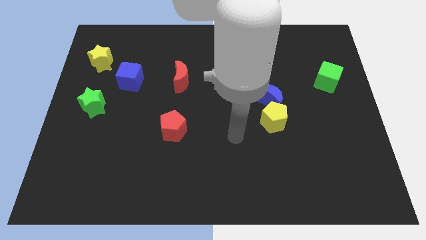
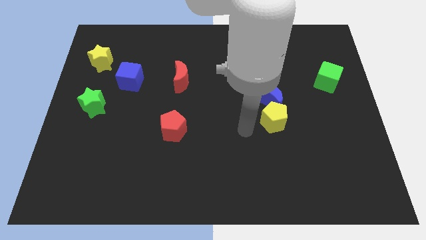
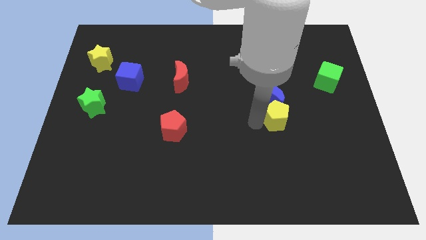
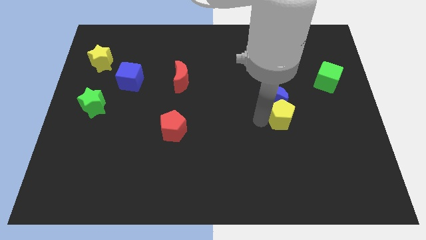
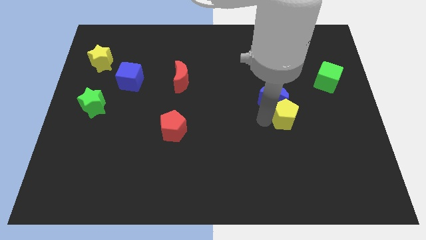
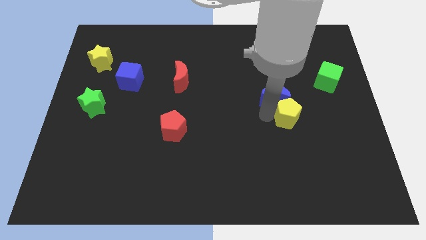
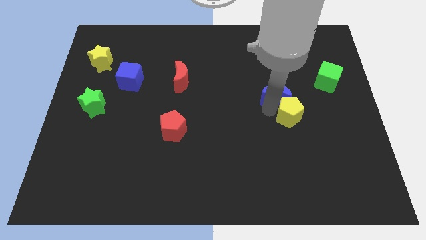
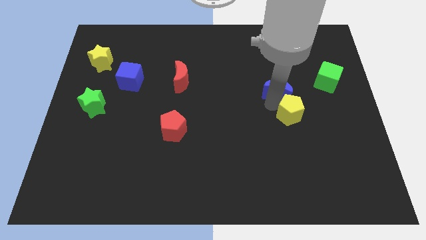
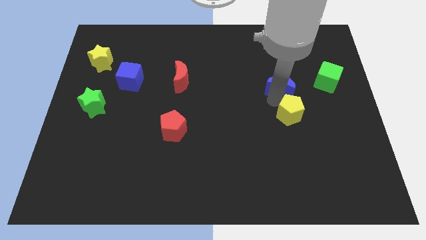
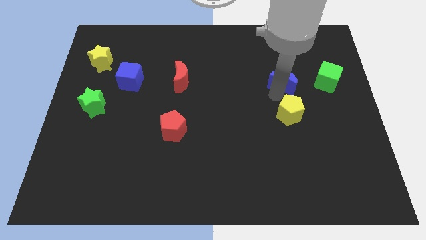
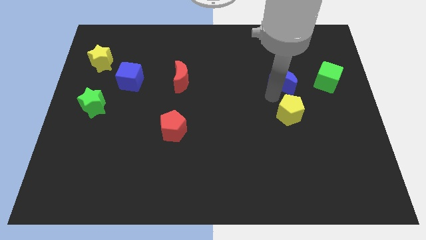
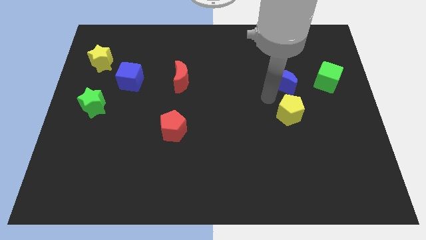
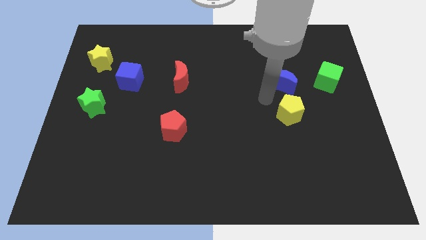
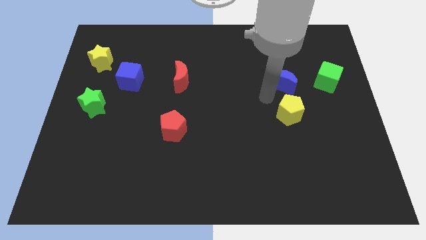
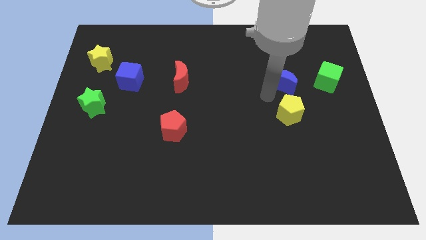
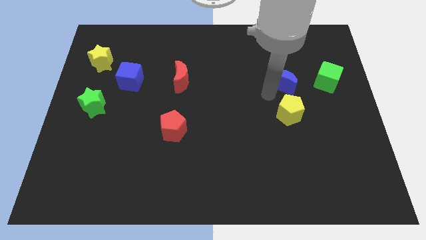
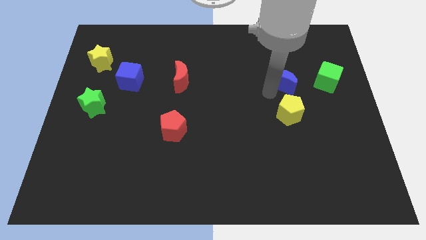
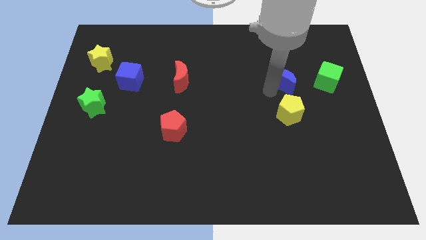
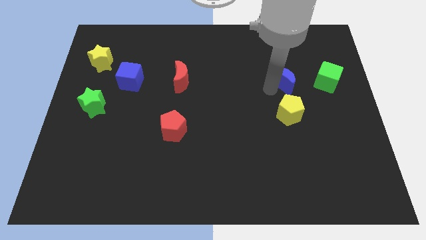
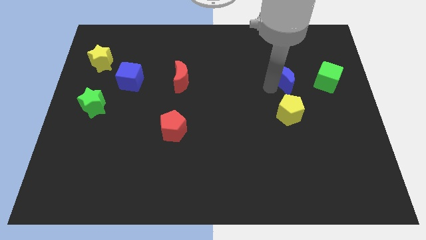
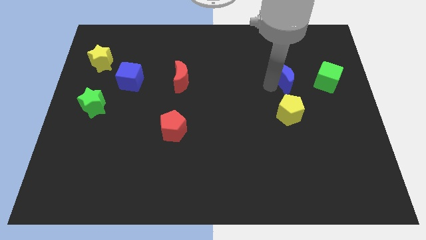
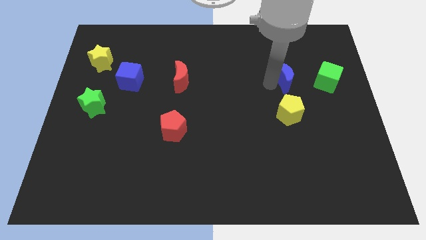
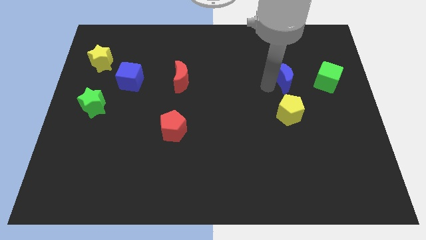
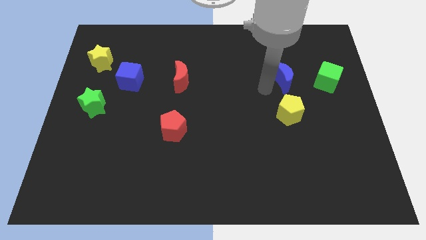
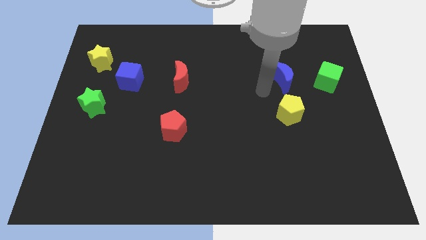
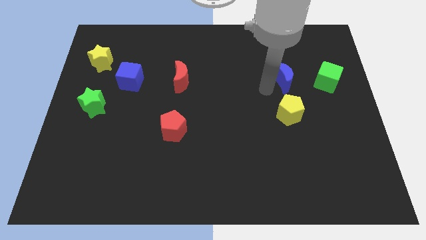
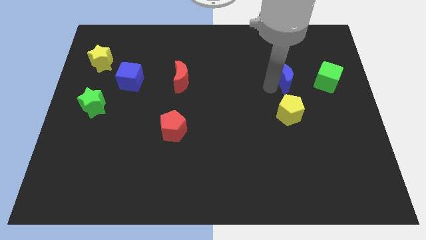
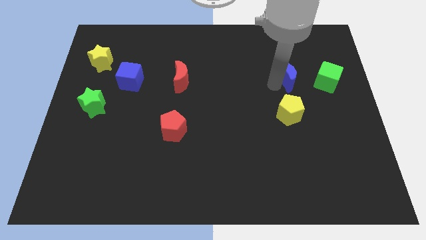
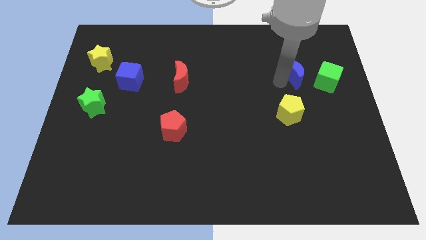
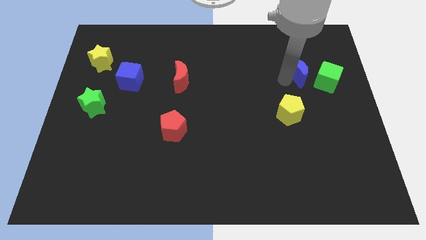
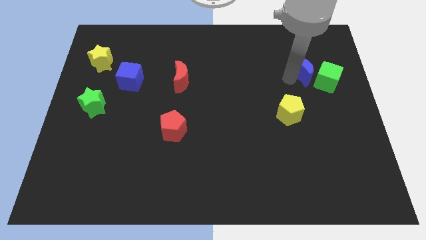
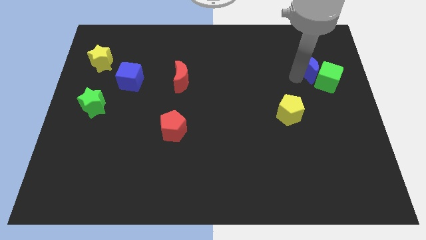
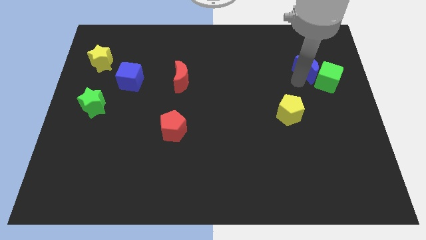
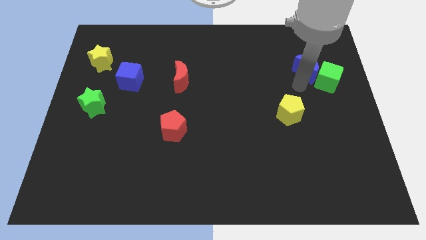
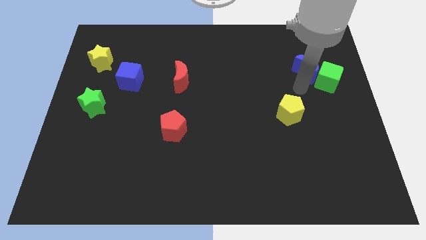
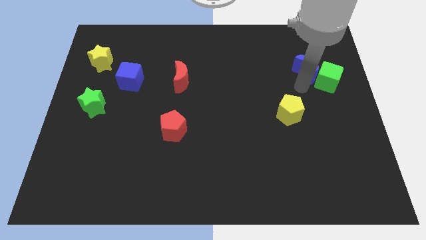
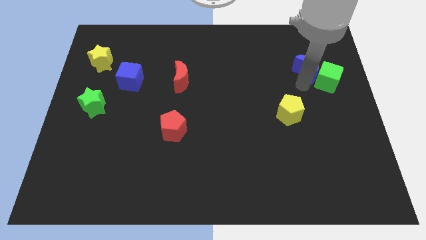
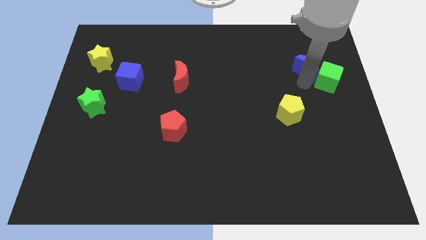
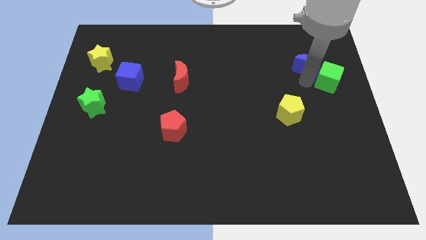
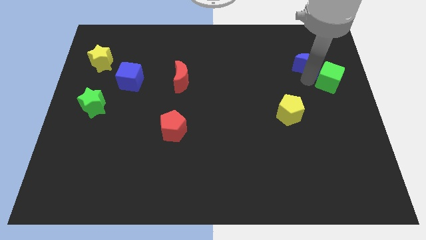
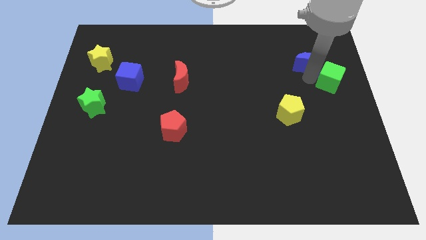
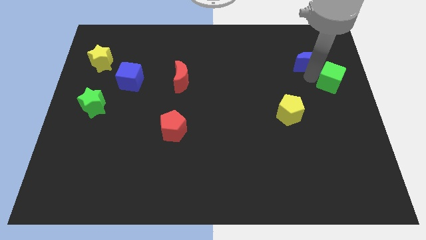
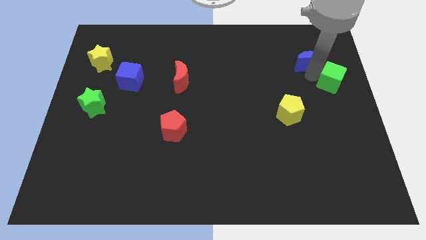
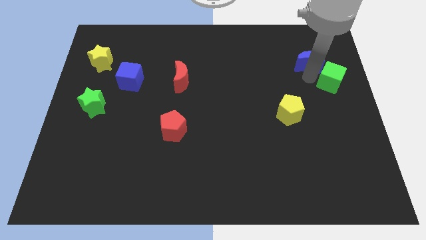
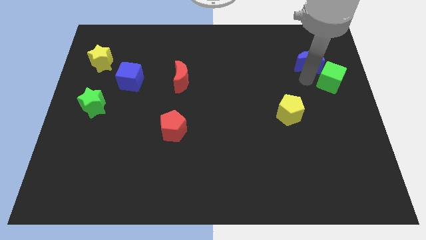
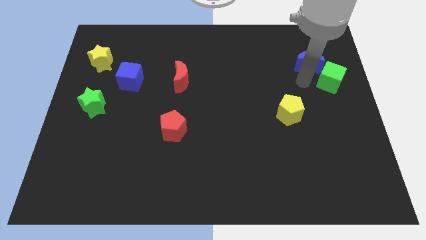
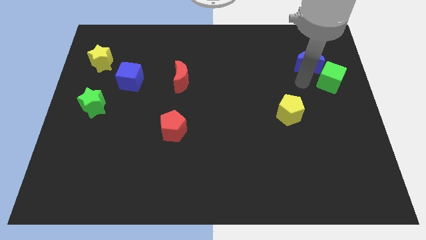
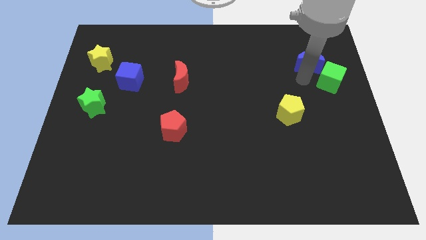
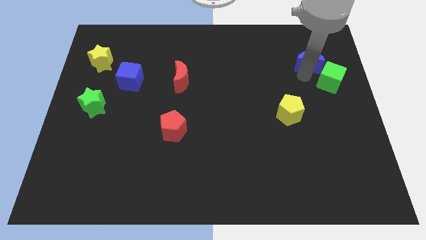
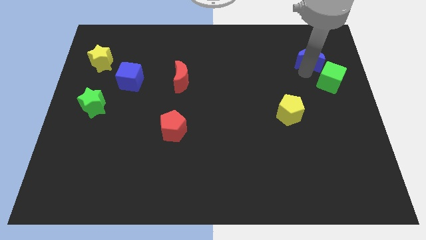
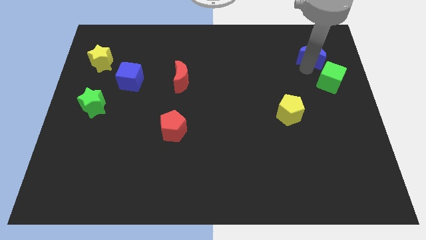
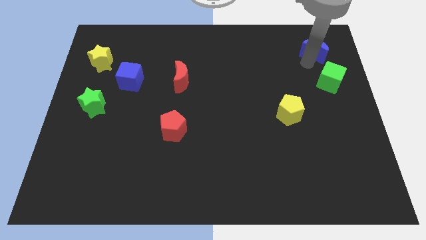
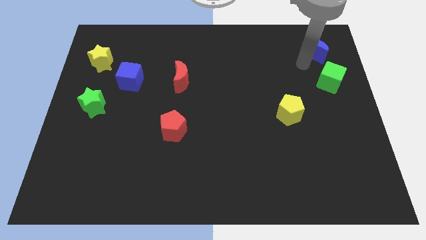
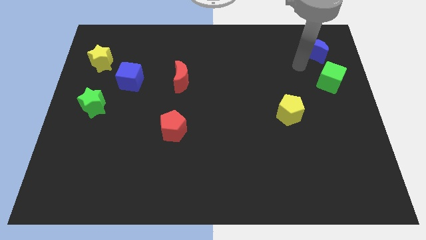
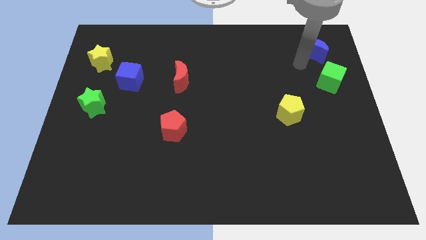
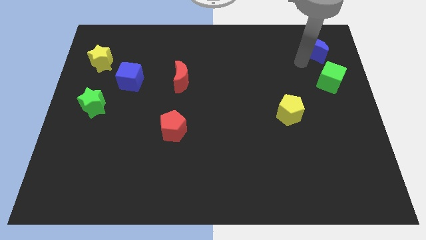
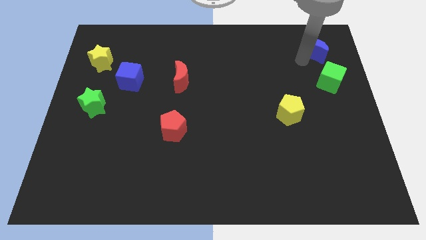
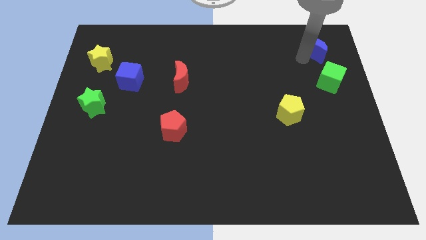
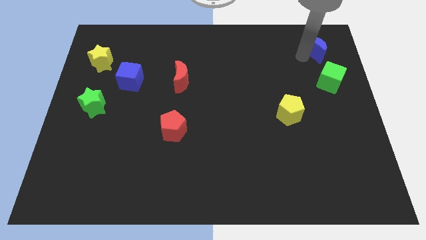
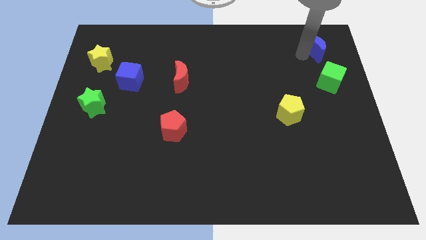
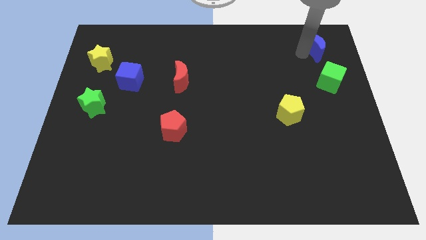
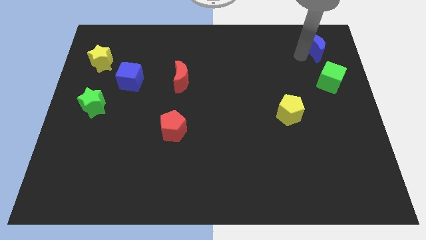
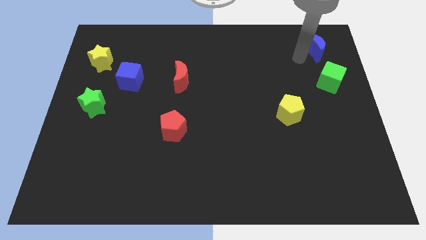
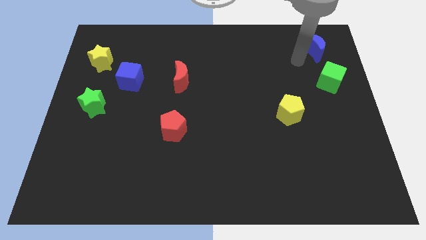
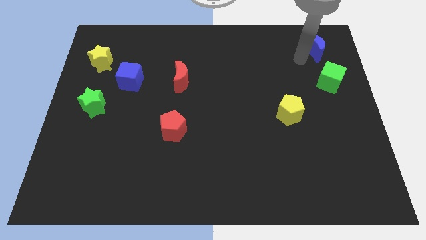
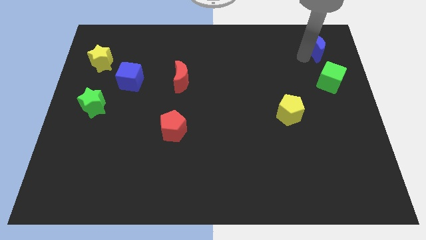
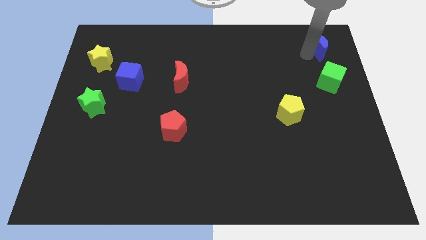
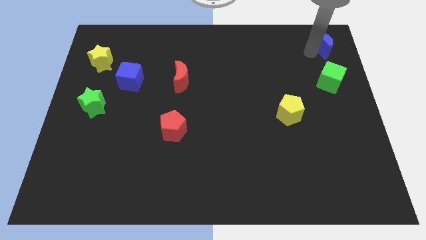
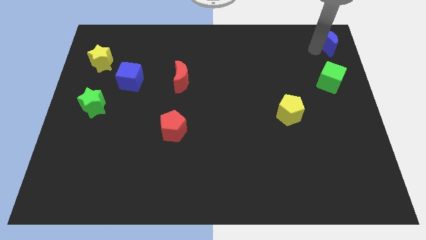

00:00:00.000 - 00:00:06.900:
slide the blue moon to the upper right corner

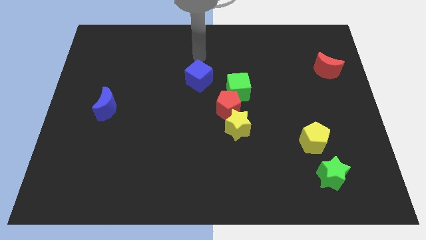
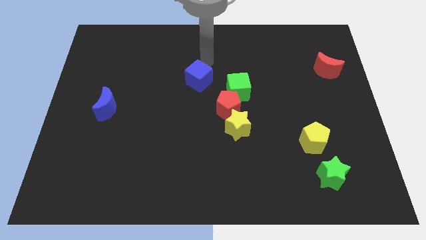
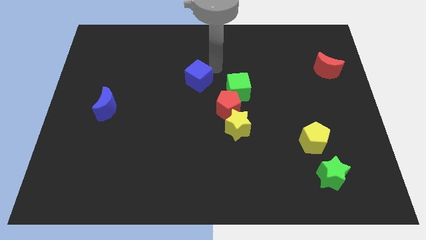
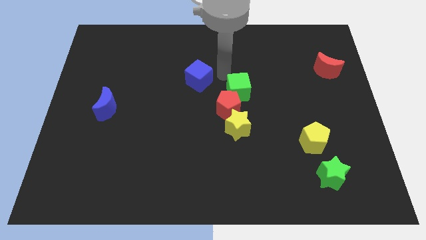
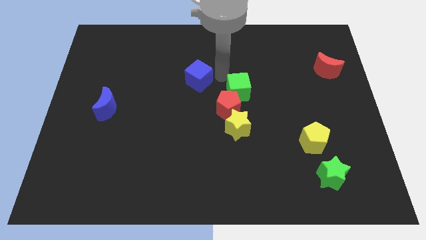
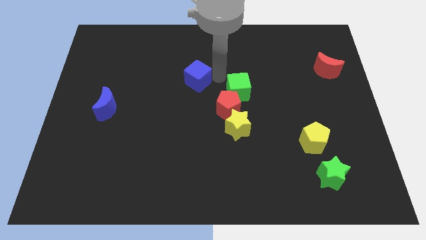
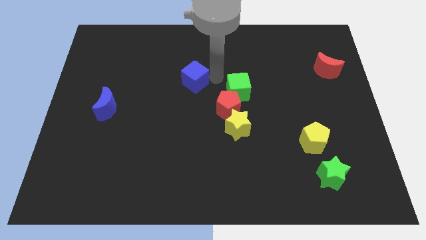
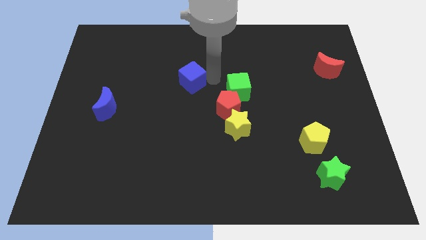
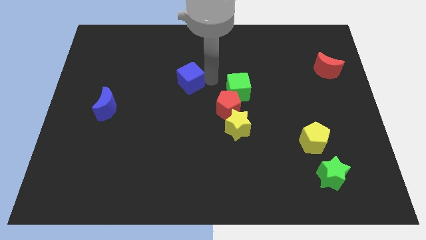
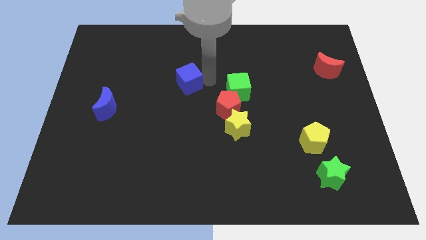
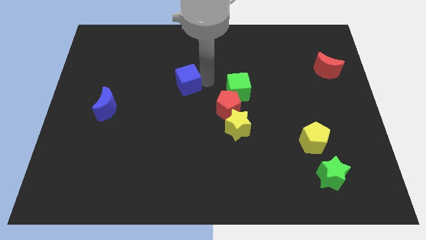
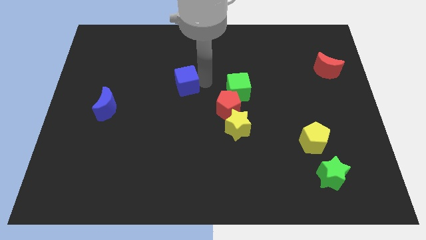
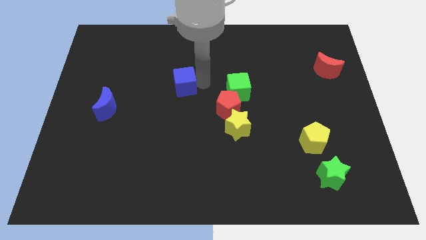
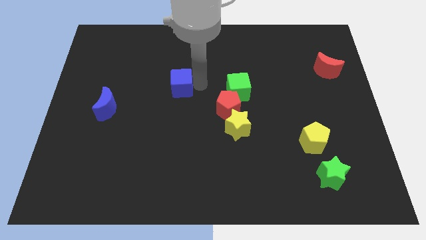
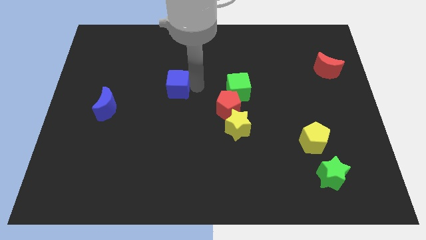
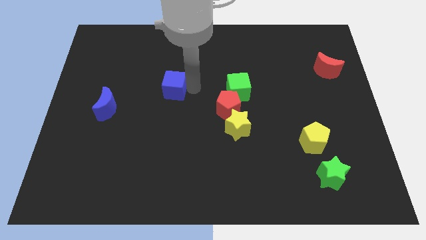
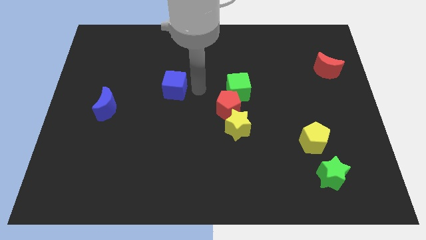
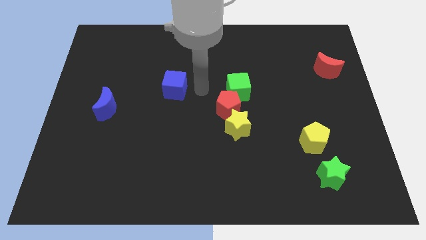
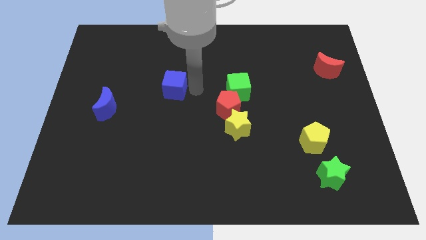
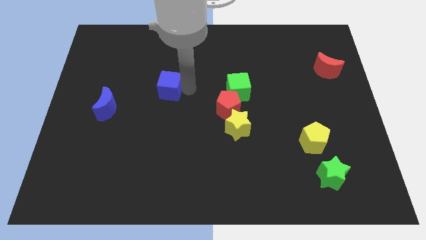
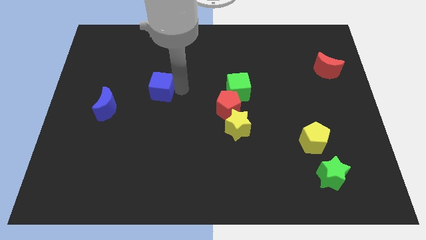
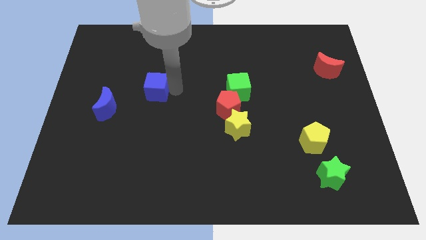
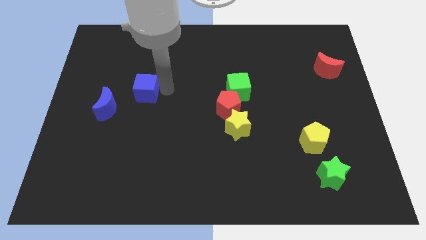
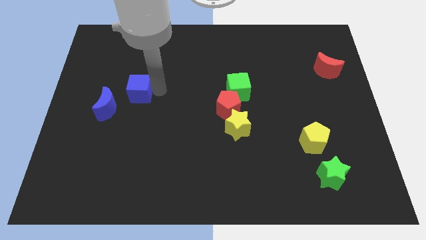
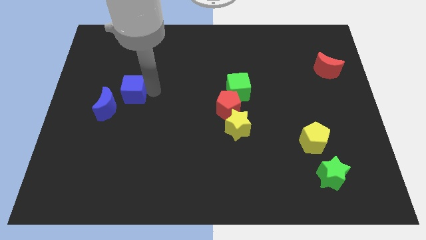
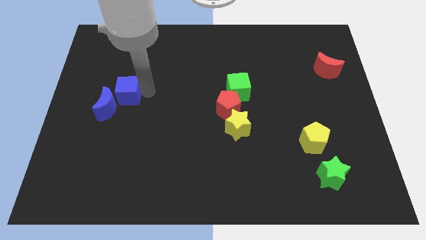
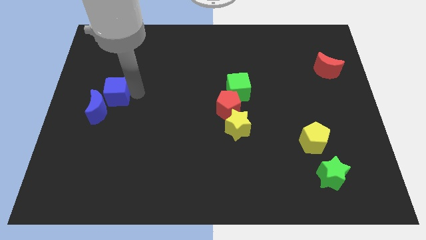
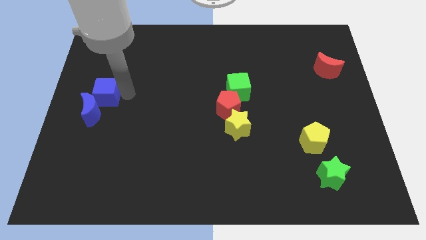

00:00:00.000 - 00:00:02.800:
move the blue cube to the center left
